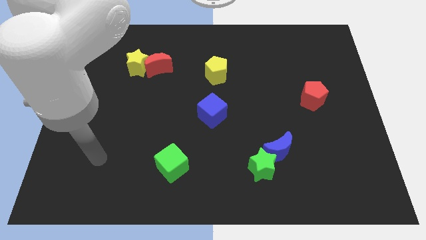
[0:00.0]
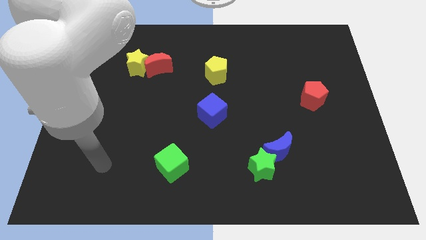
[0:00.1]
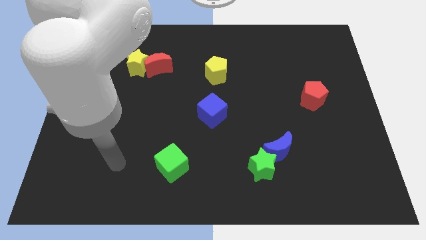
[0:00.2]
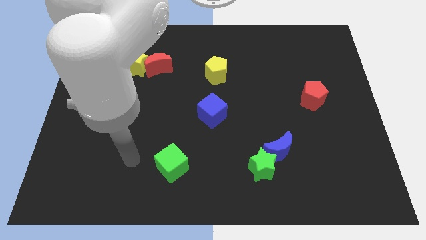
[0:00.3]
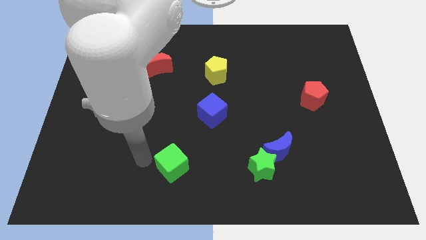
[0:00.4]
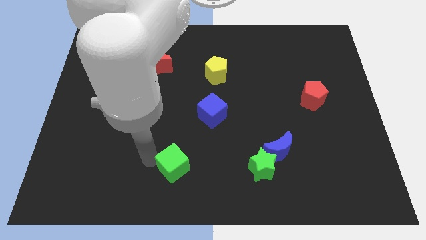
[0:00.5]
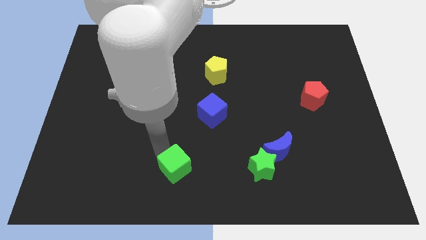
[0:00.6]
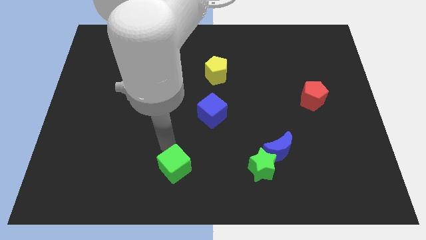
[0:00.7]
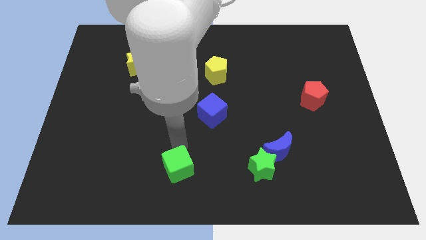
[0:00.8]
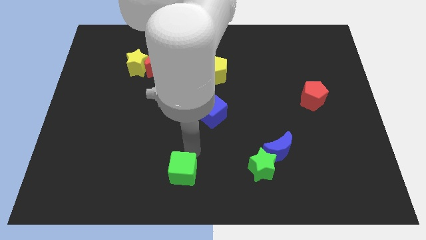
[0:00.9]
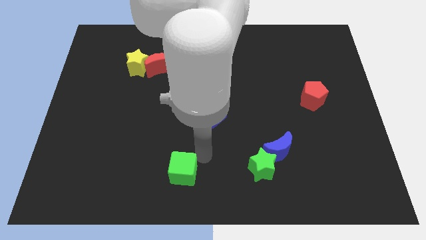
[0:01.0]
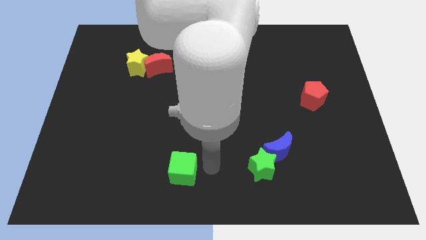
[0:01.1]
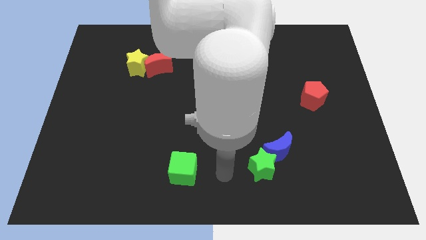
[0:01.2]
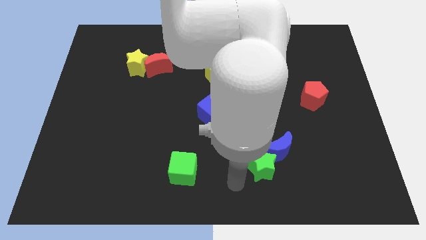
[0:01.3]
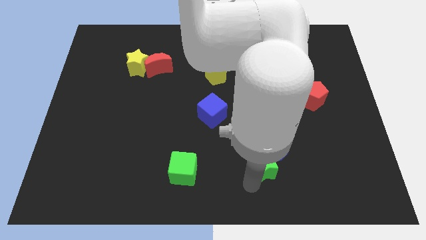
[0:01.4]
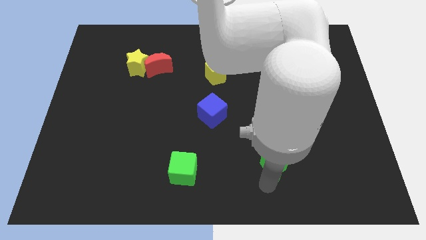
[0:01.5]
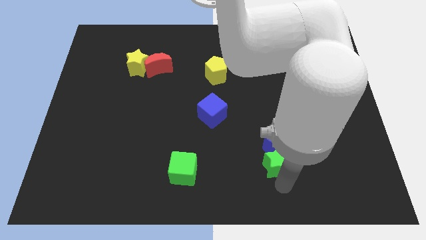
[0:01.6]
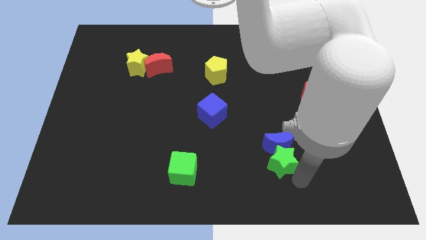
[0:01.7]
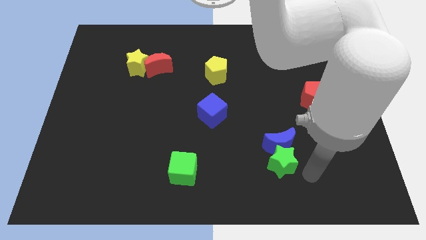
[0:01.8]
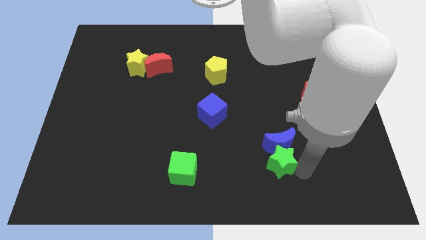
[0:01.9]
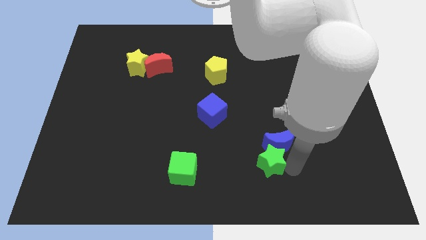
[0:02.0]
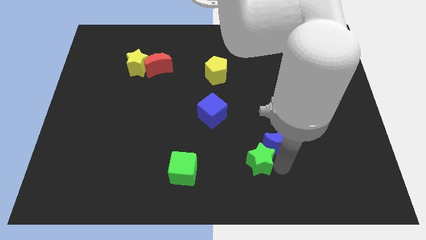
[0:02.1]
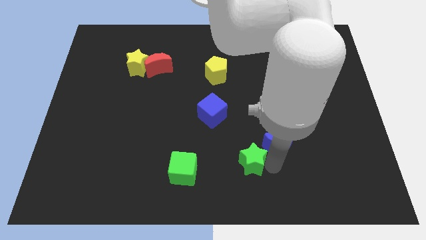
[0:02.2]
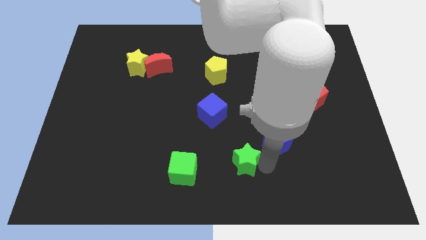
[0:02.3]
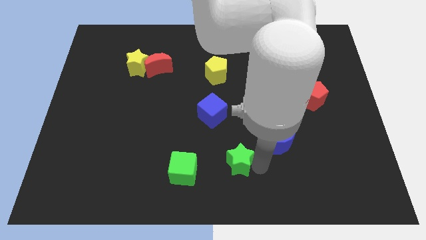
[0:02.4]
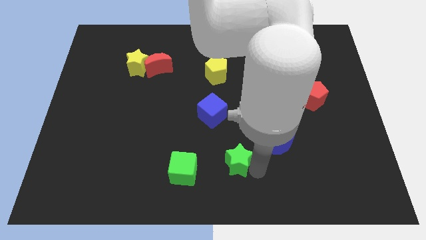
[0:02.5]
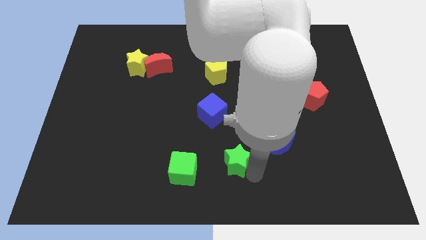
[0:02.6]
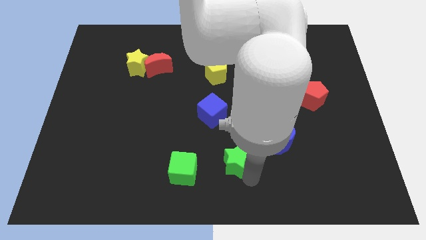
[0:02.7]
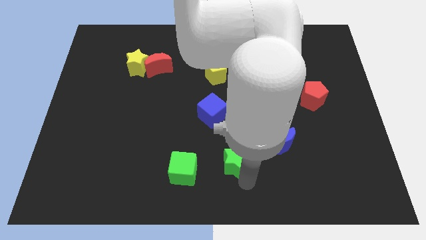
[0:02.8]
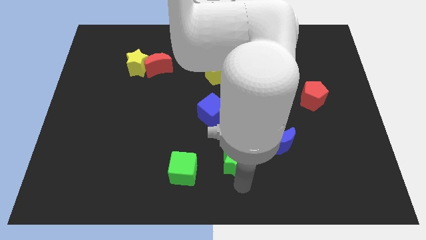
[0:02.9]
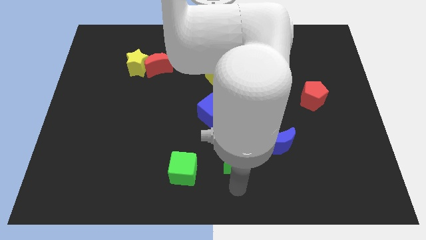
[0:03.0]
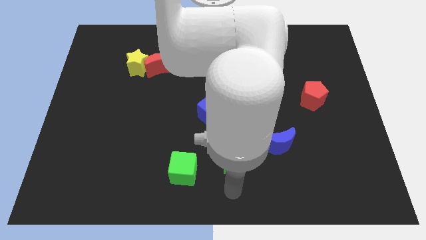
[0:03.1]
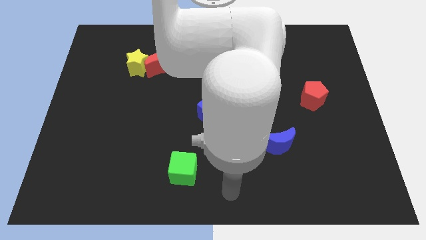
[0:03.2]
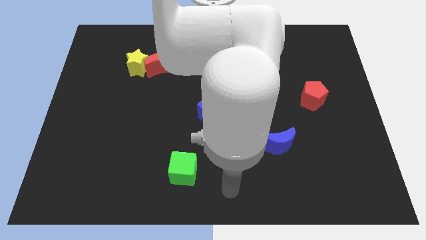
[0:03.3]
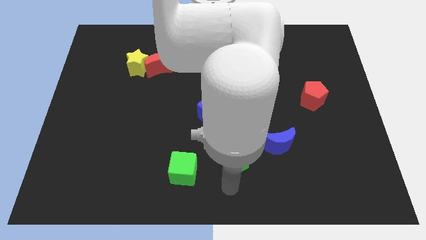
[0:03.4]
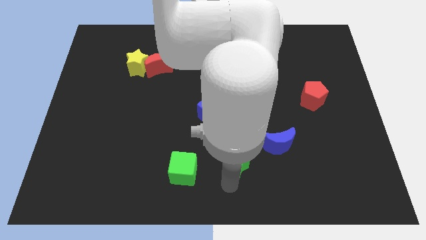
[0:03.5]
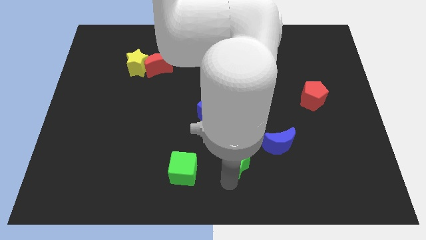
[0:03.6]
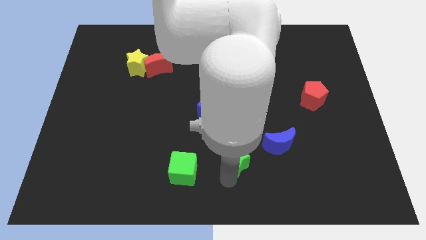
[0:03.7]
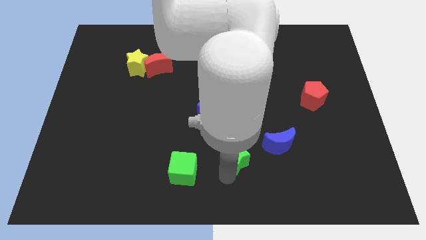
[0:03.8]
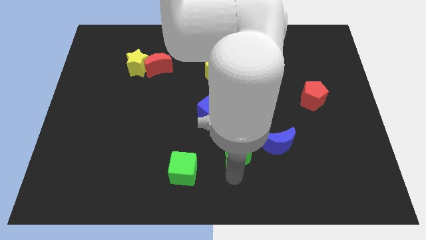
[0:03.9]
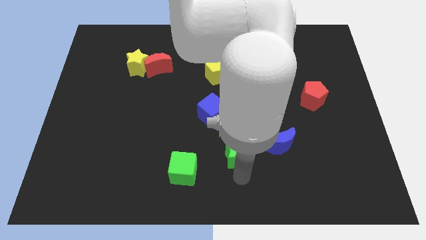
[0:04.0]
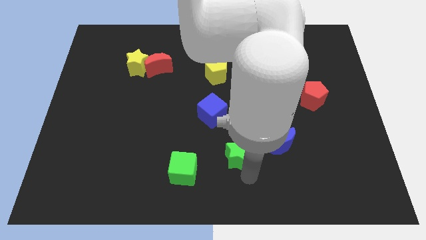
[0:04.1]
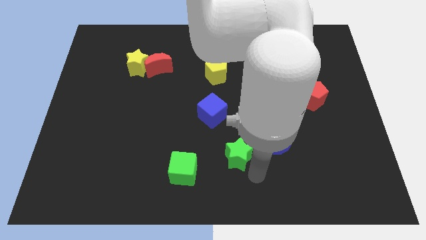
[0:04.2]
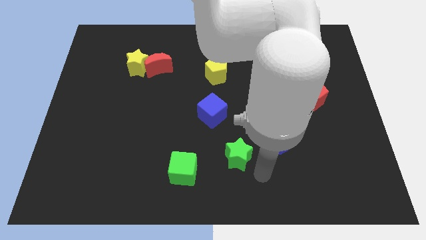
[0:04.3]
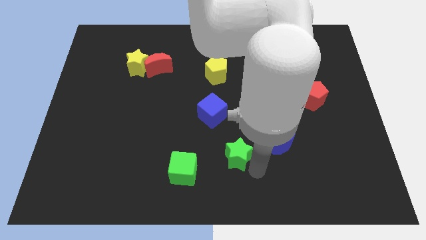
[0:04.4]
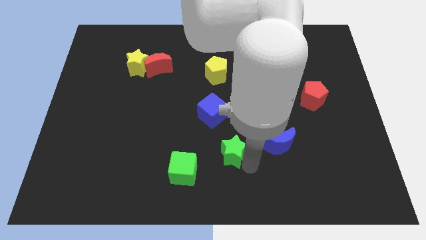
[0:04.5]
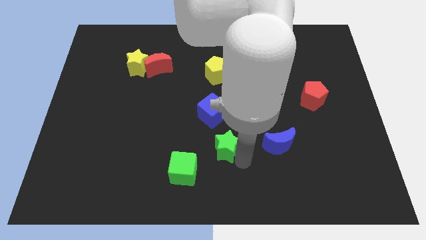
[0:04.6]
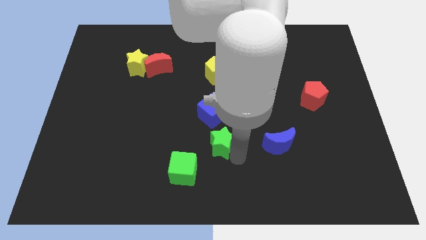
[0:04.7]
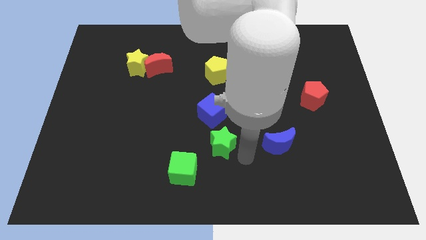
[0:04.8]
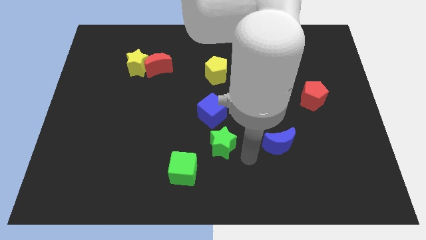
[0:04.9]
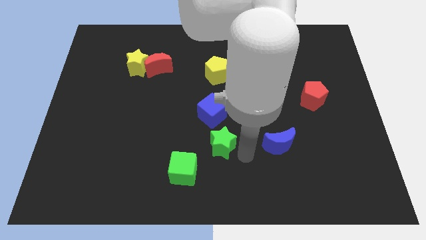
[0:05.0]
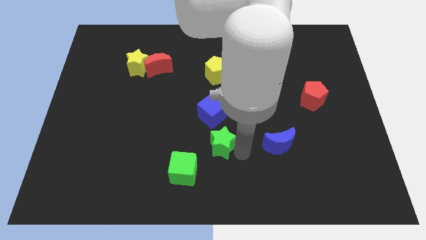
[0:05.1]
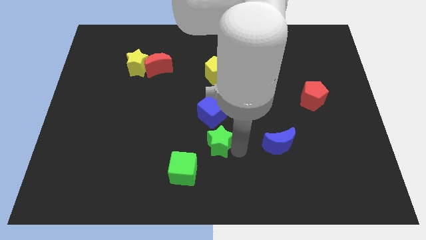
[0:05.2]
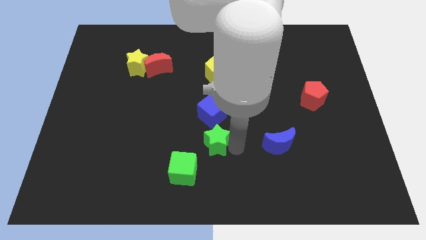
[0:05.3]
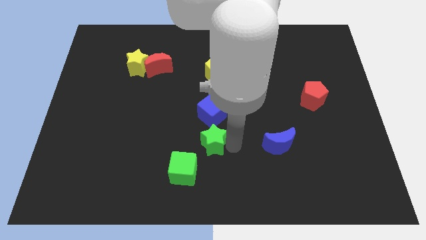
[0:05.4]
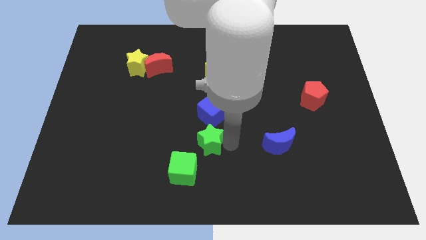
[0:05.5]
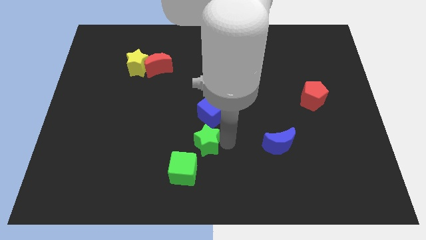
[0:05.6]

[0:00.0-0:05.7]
slide the green star to the bottom left side of the blue cube

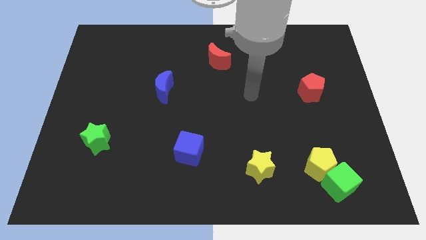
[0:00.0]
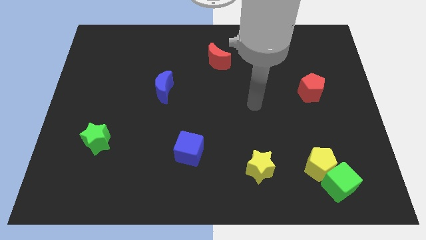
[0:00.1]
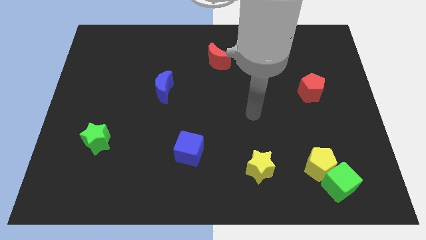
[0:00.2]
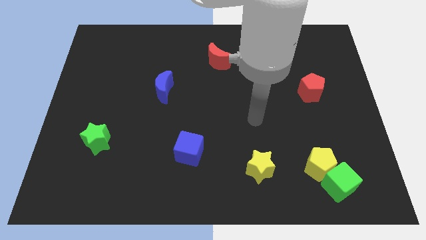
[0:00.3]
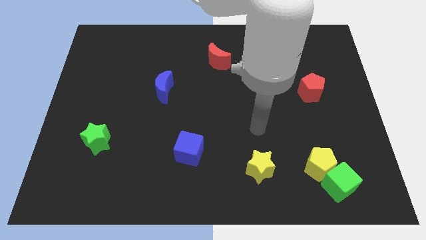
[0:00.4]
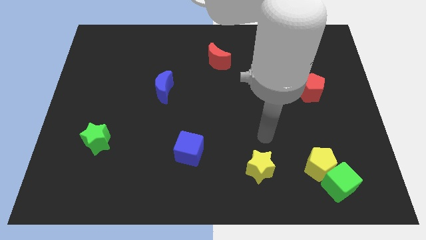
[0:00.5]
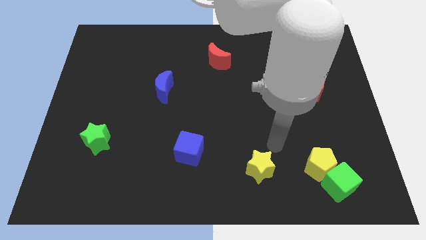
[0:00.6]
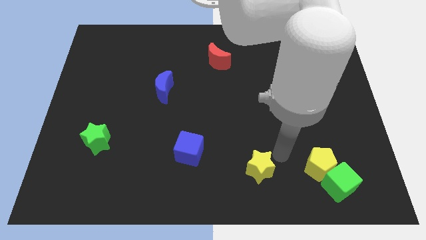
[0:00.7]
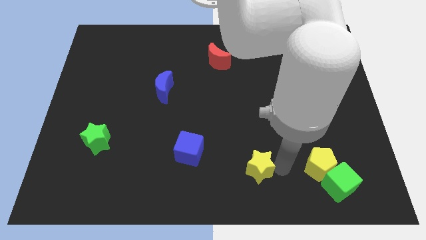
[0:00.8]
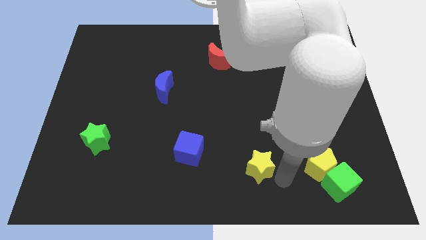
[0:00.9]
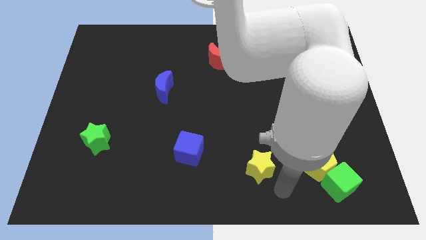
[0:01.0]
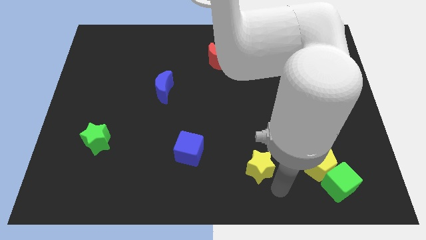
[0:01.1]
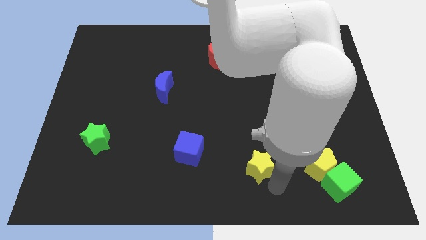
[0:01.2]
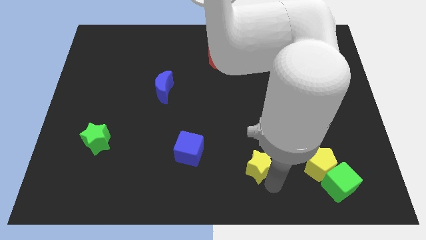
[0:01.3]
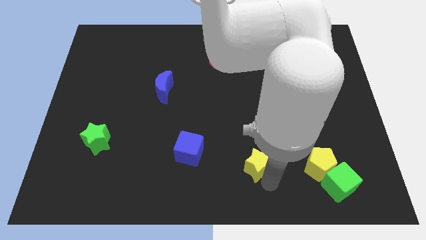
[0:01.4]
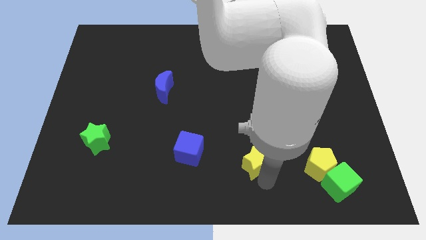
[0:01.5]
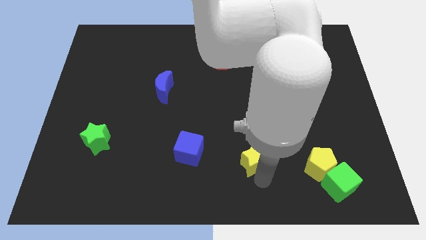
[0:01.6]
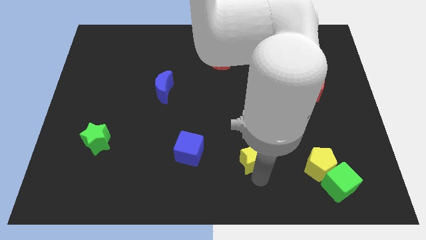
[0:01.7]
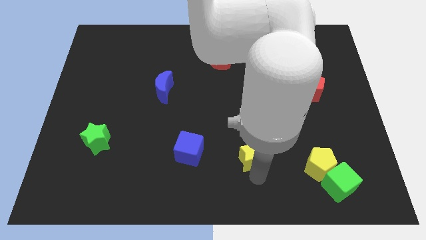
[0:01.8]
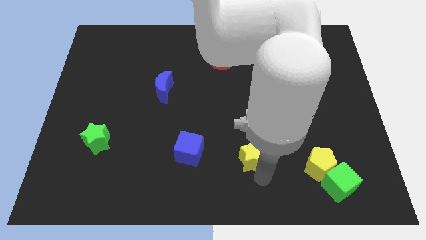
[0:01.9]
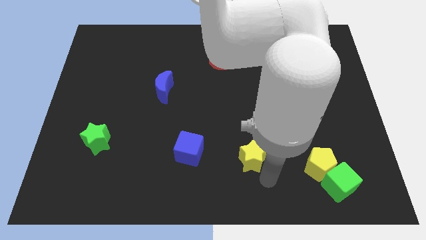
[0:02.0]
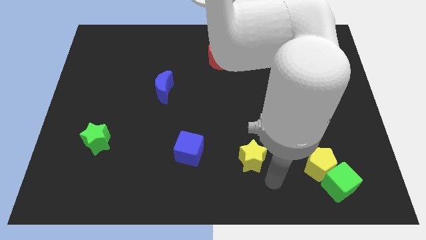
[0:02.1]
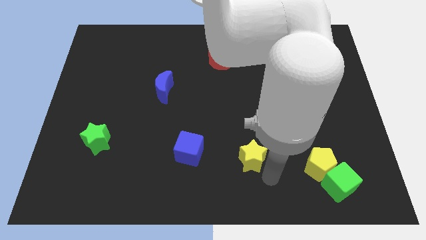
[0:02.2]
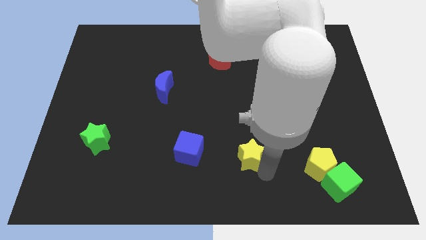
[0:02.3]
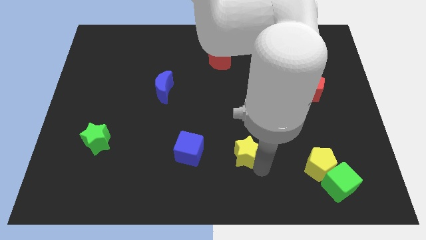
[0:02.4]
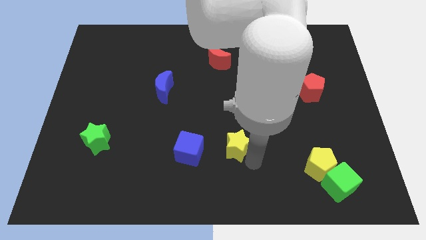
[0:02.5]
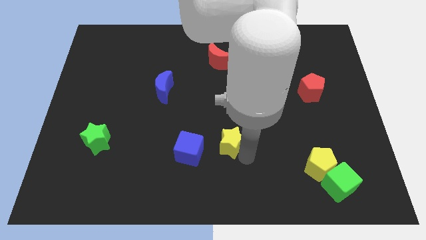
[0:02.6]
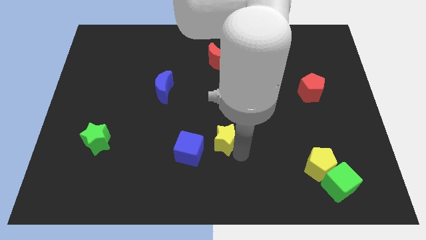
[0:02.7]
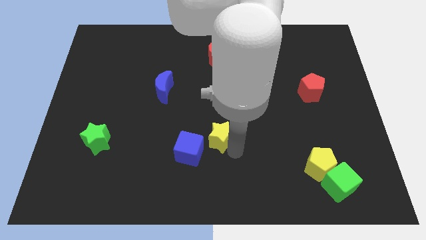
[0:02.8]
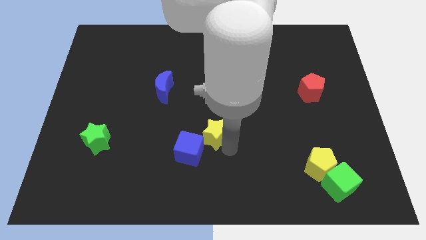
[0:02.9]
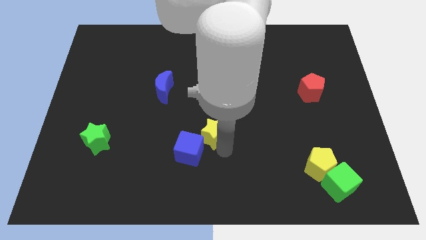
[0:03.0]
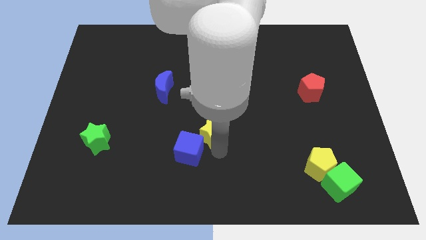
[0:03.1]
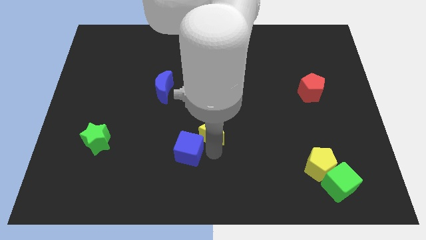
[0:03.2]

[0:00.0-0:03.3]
put the yellow star to the top of the blue cube
